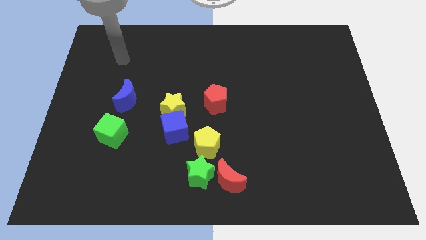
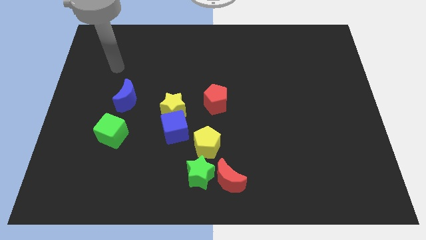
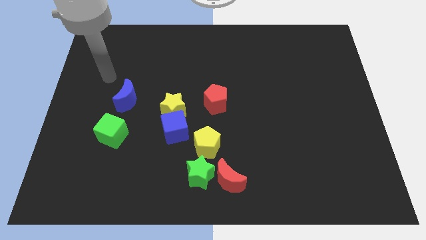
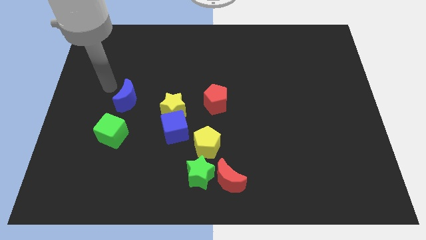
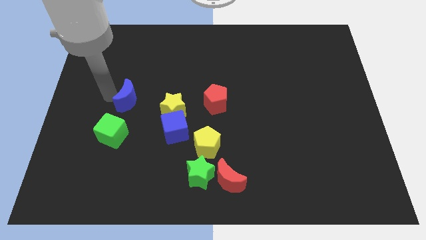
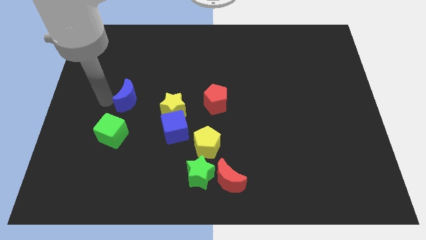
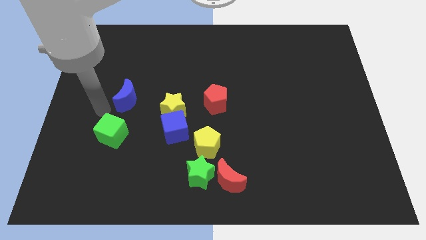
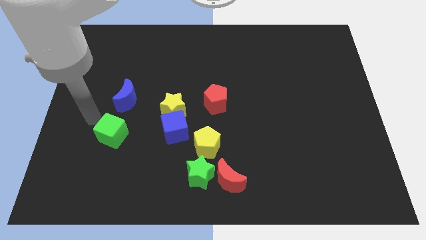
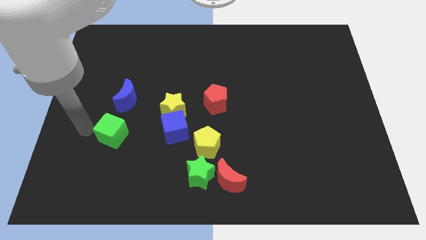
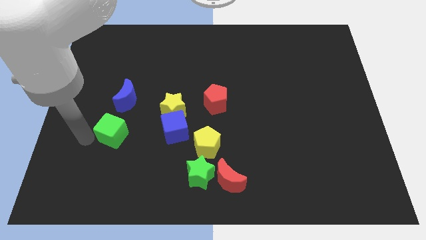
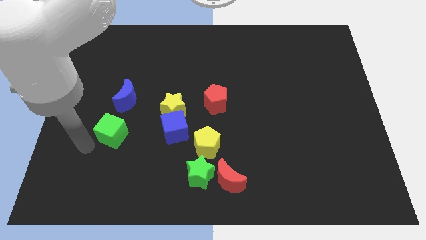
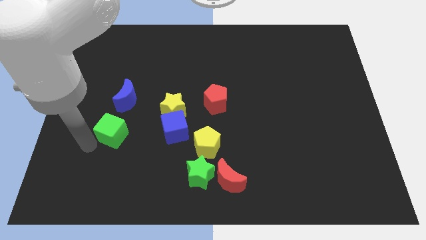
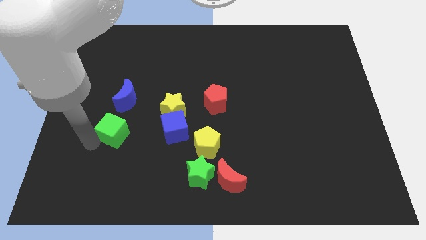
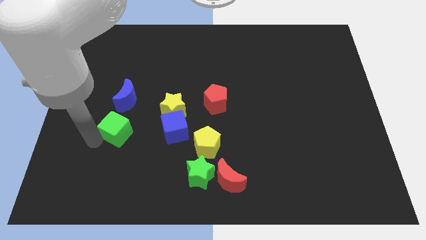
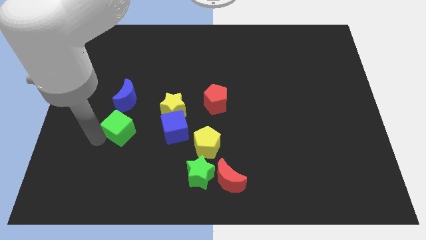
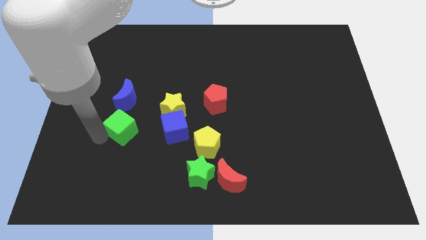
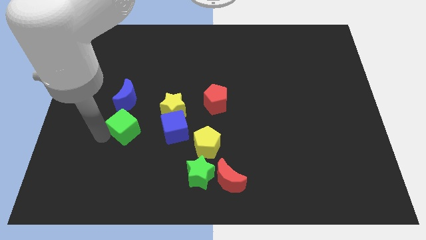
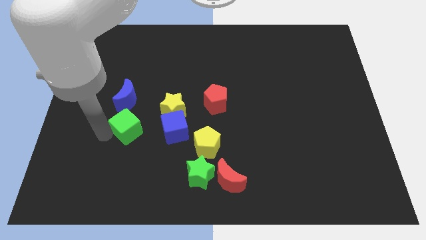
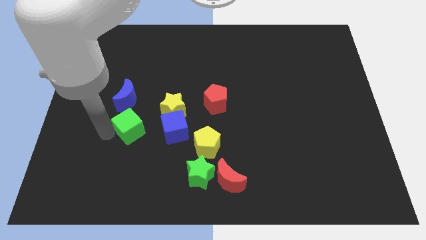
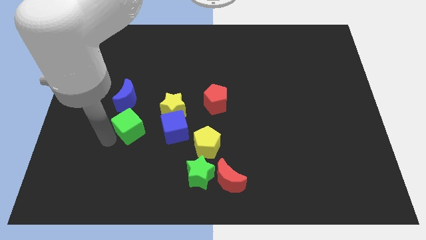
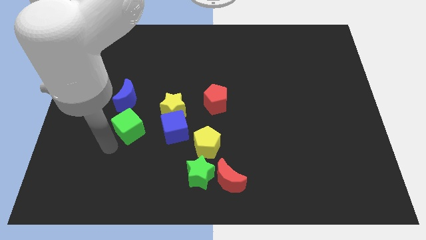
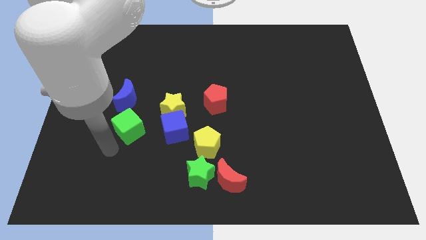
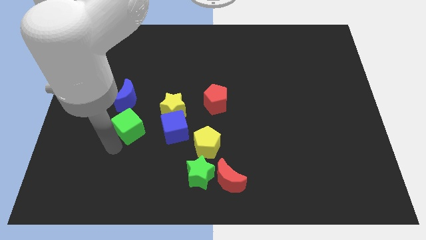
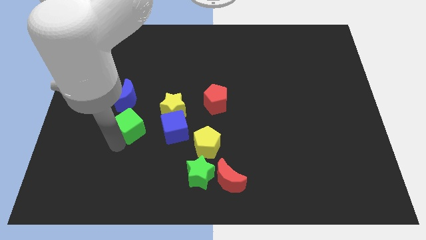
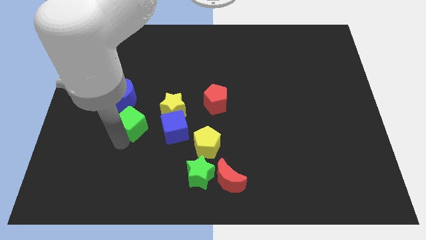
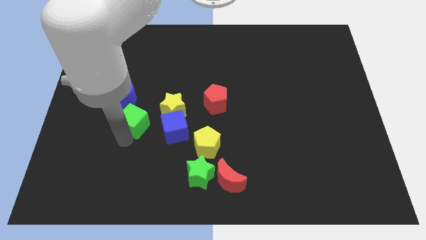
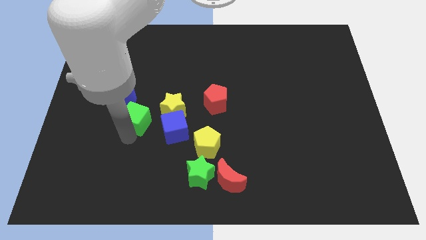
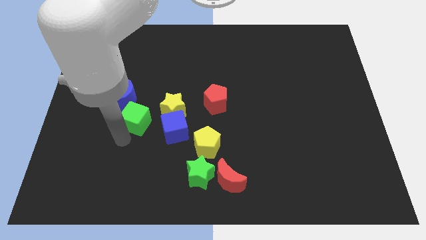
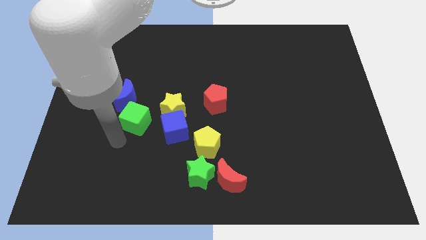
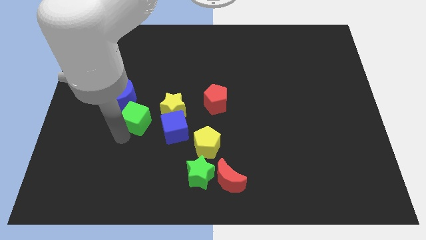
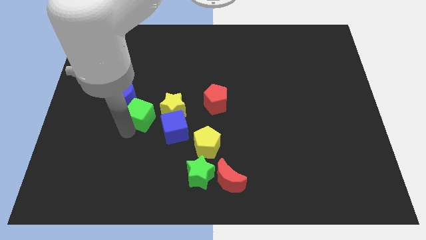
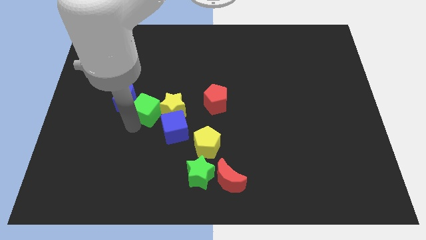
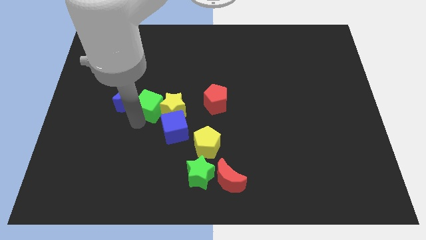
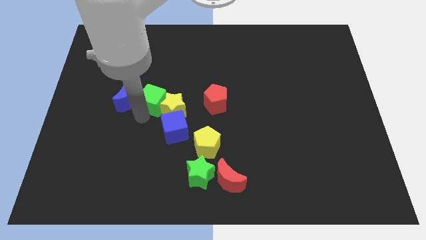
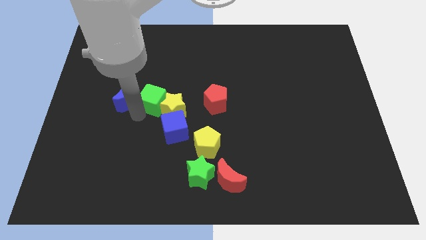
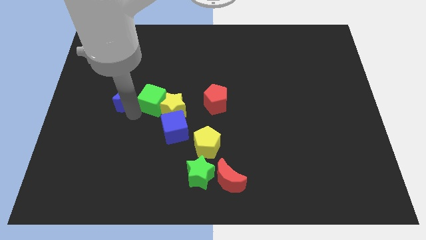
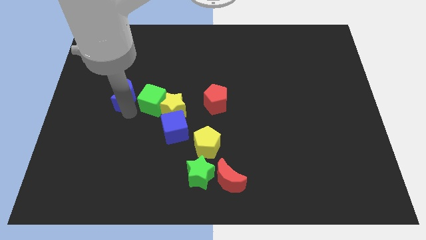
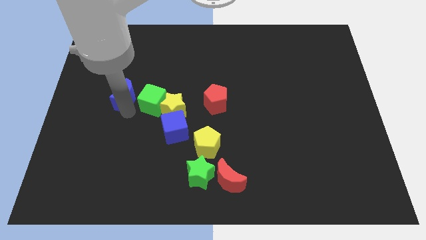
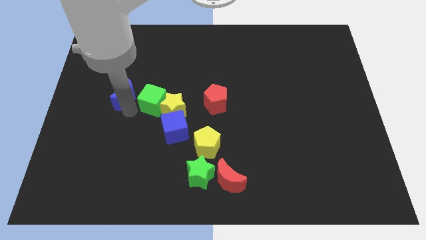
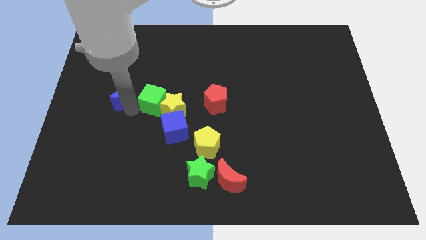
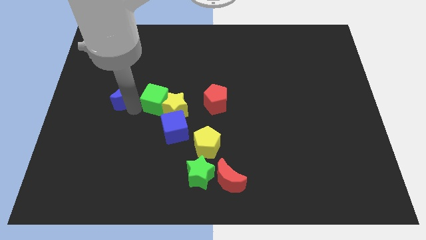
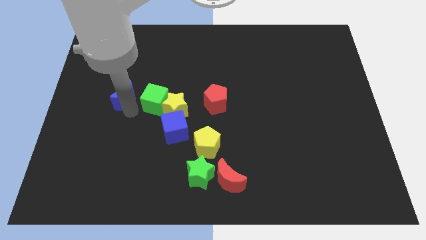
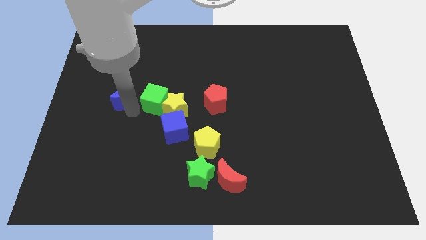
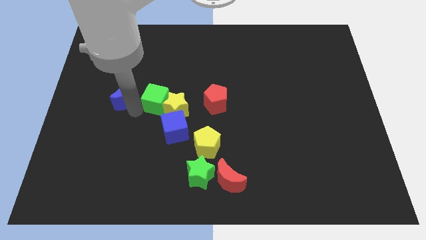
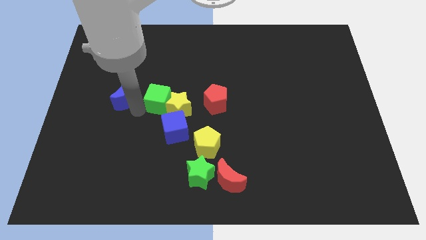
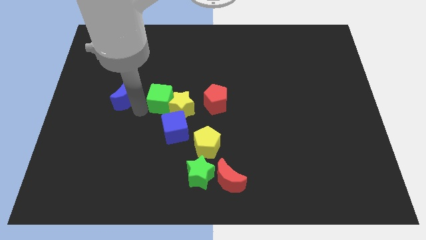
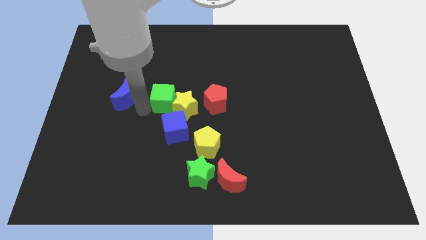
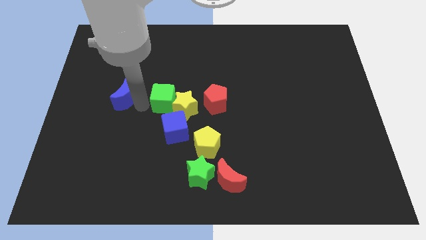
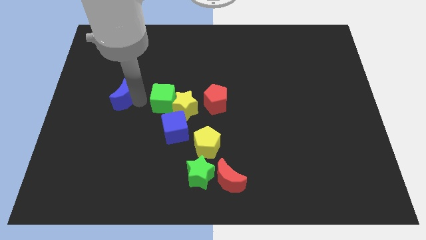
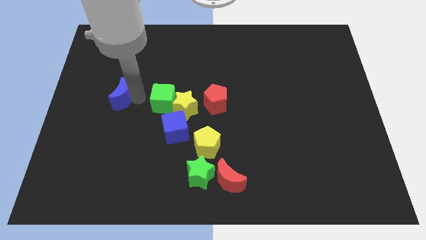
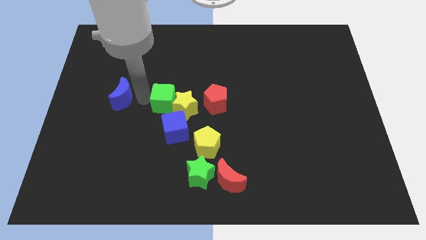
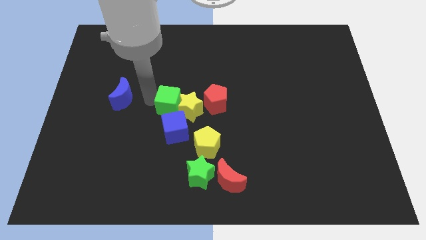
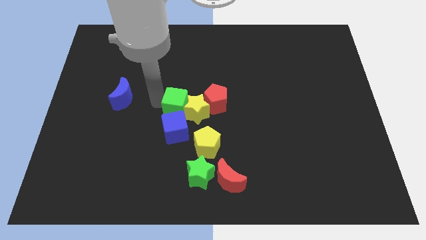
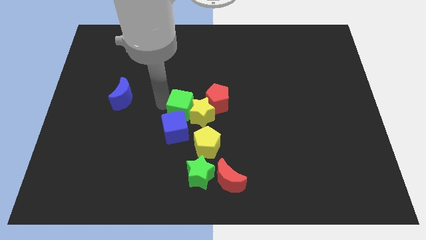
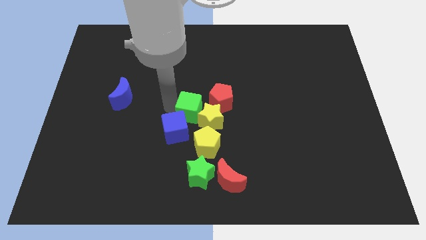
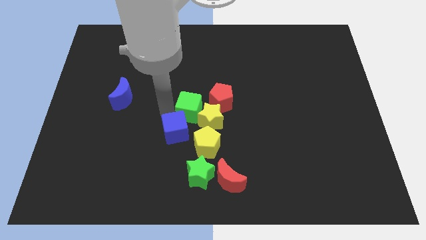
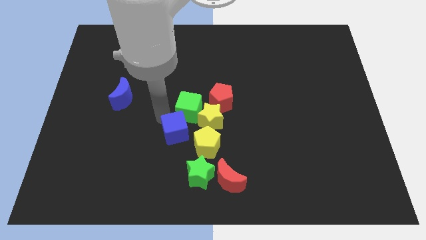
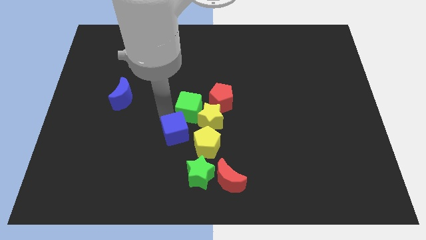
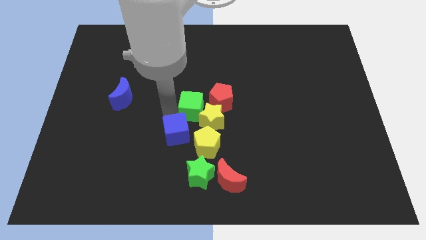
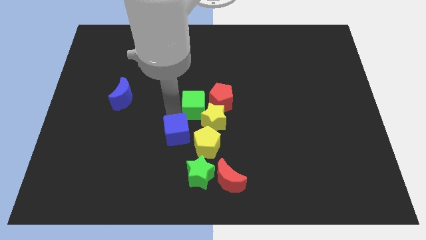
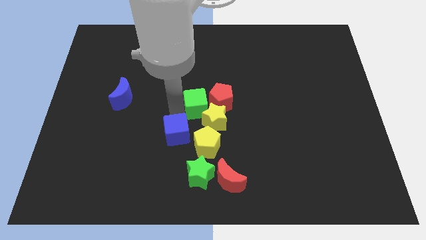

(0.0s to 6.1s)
push the green cube to the red pentagon

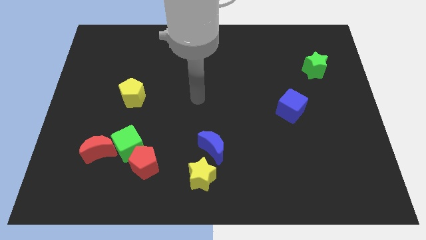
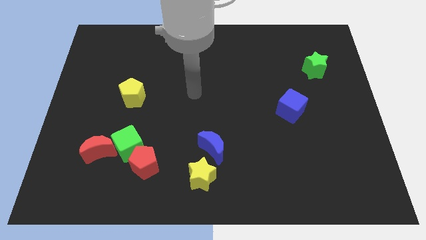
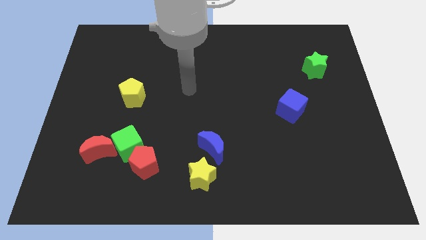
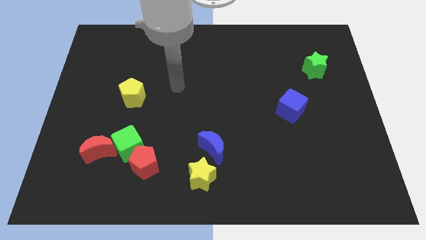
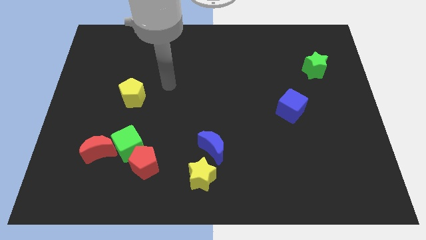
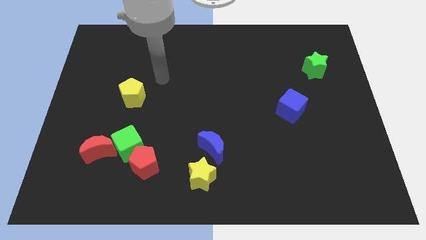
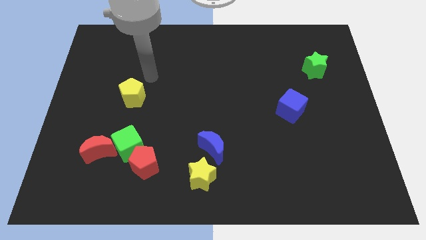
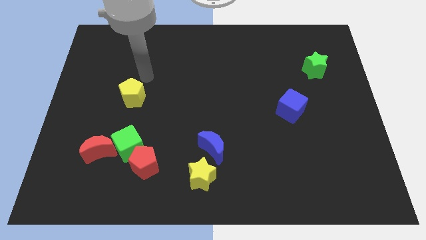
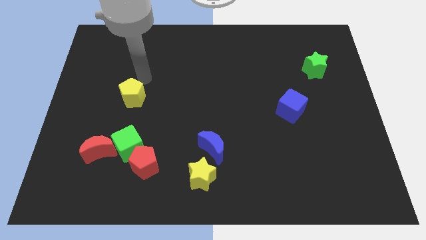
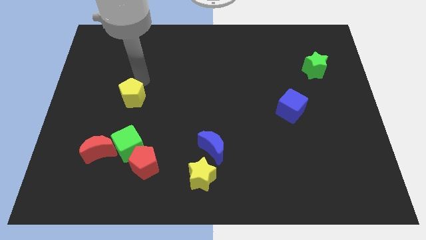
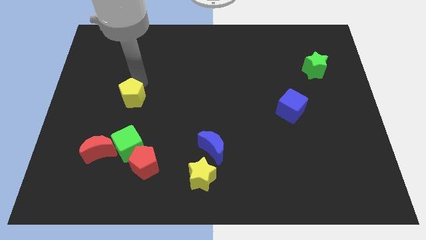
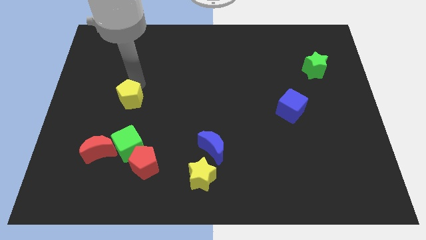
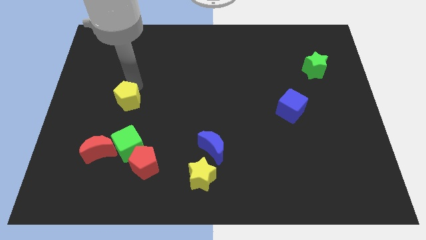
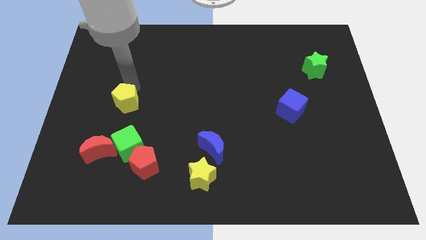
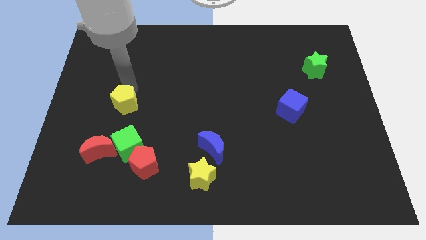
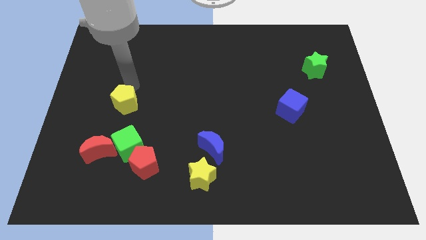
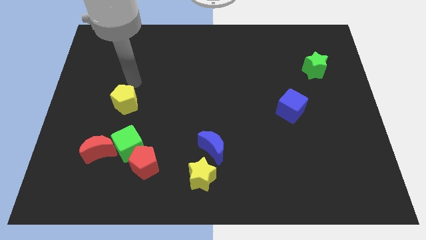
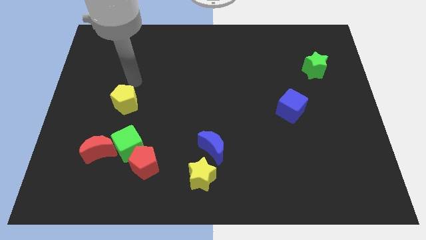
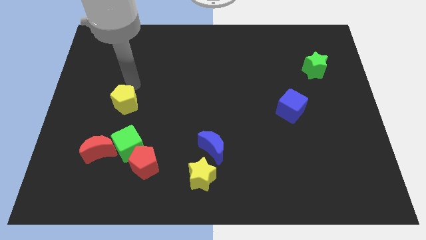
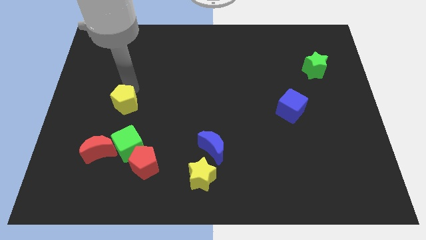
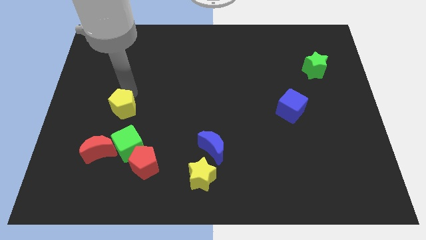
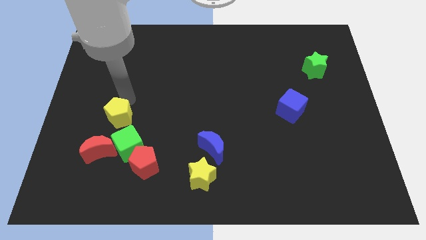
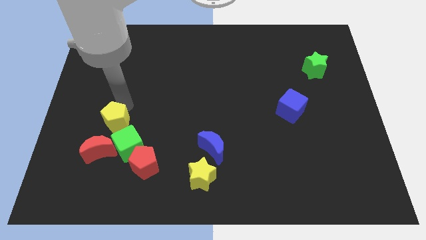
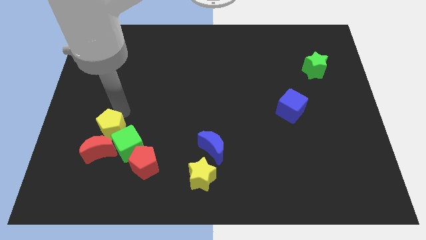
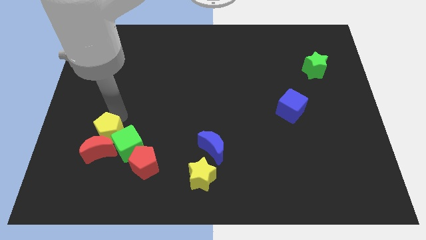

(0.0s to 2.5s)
push the yellow pentagon to the red moon
